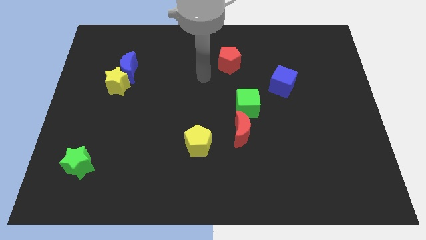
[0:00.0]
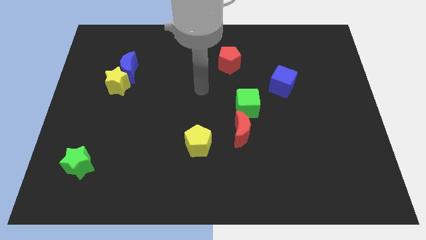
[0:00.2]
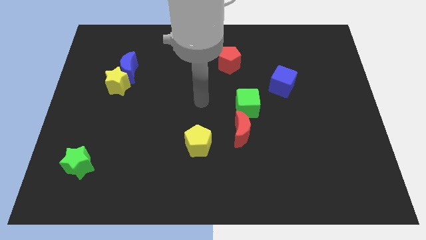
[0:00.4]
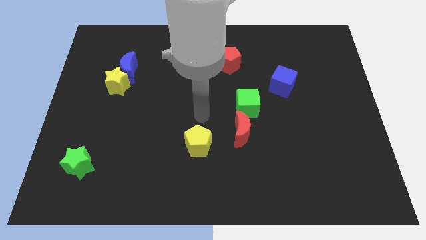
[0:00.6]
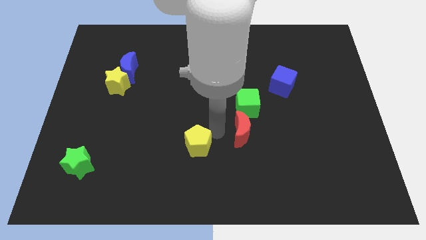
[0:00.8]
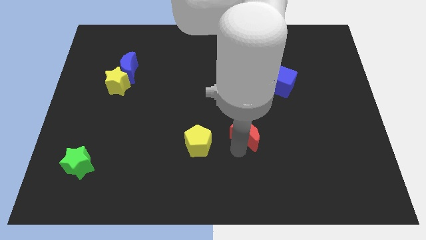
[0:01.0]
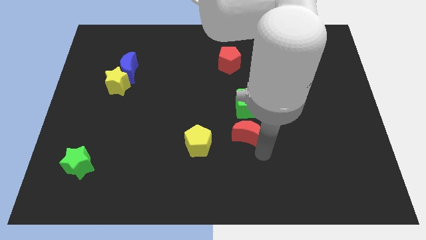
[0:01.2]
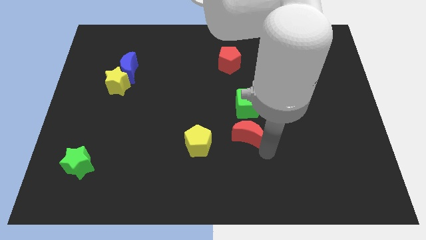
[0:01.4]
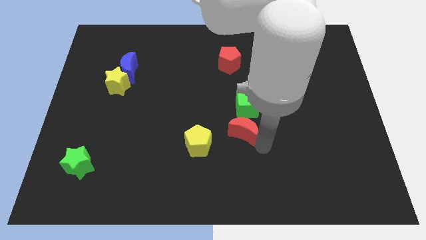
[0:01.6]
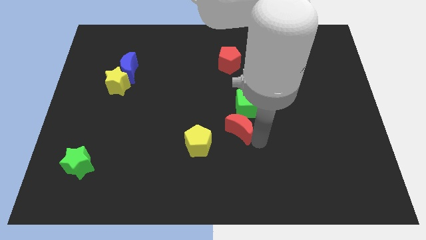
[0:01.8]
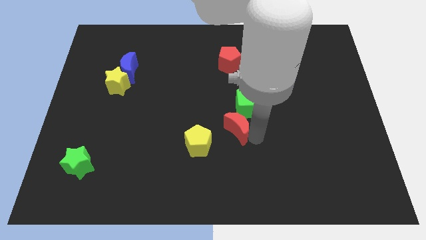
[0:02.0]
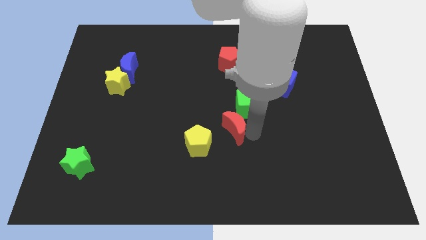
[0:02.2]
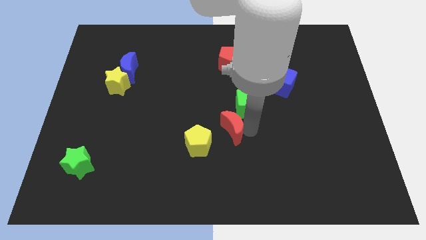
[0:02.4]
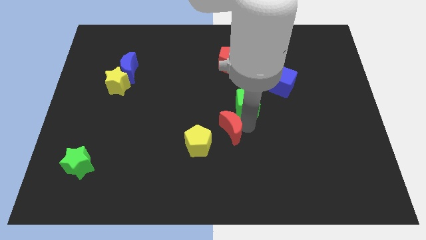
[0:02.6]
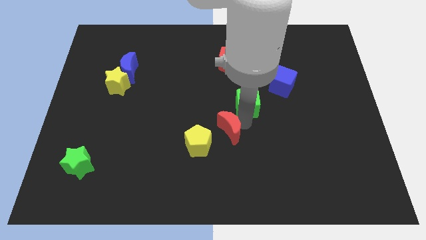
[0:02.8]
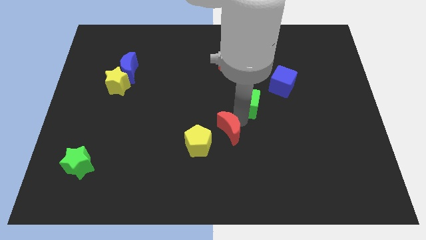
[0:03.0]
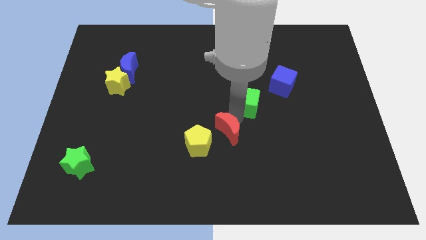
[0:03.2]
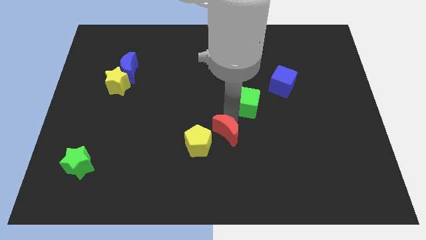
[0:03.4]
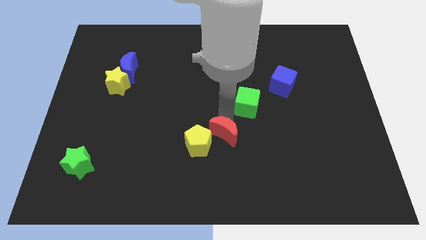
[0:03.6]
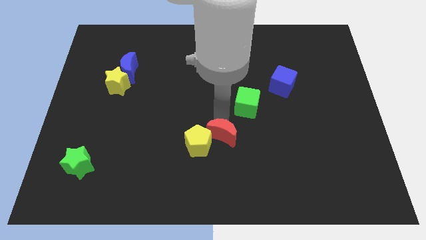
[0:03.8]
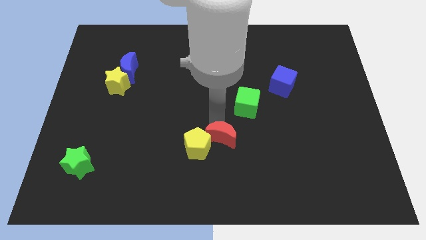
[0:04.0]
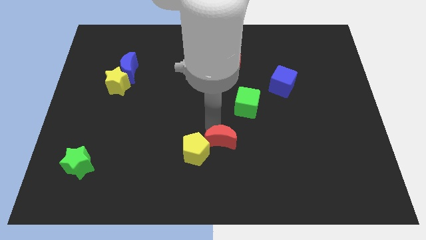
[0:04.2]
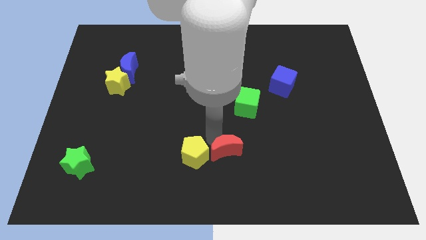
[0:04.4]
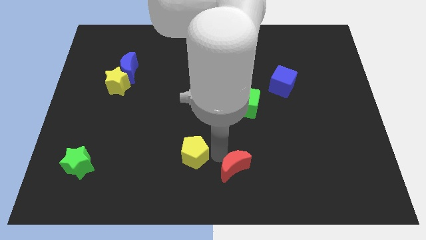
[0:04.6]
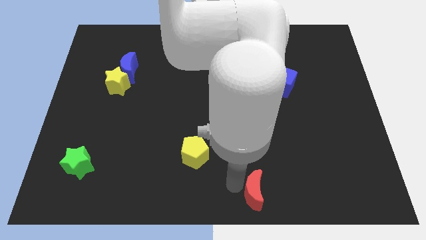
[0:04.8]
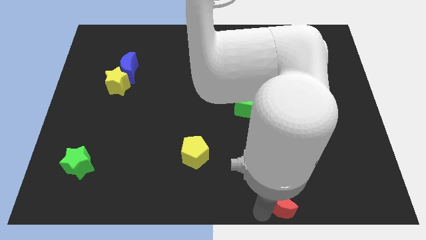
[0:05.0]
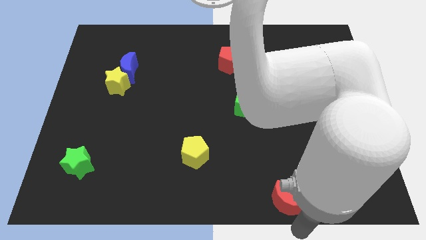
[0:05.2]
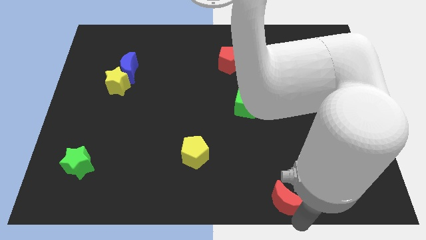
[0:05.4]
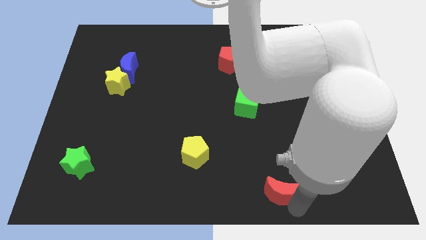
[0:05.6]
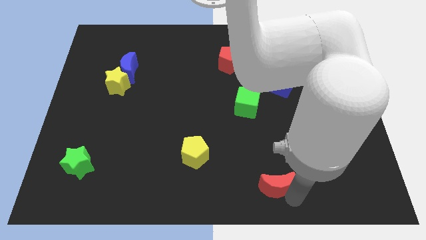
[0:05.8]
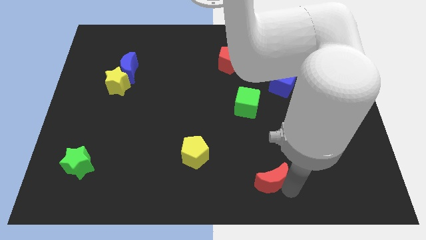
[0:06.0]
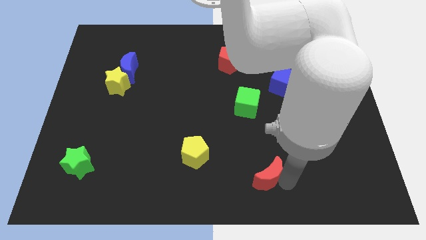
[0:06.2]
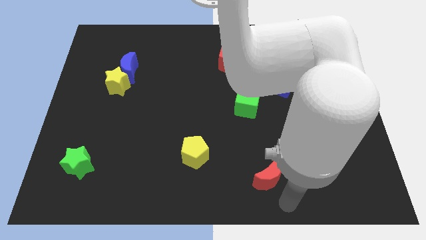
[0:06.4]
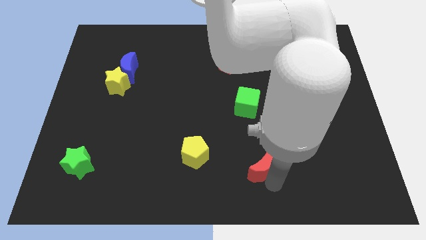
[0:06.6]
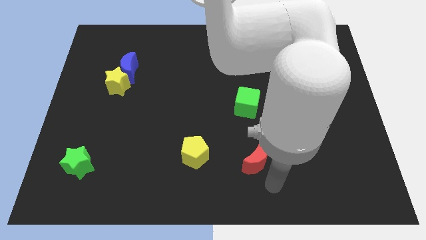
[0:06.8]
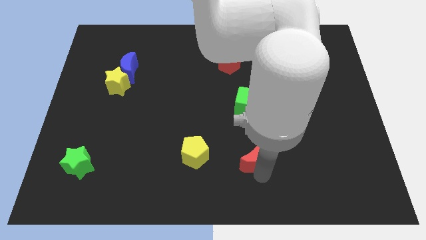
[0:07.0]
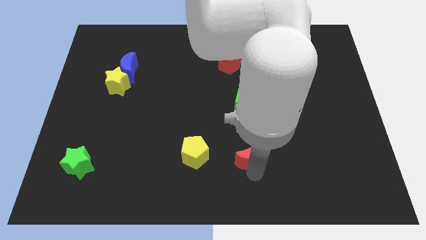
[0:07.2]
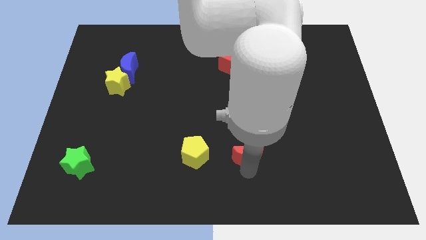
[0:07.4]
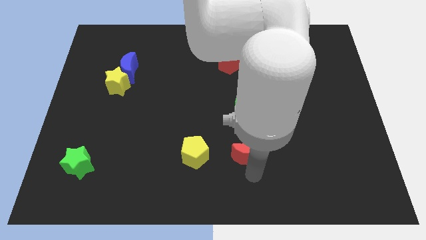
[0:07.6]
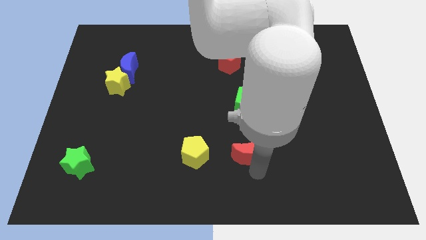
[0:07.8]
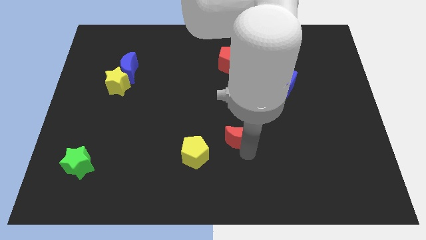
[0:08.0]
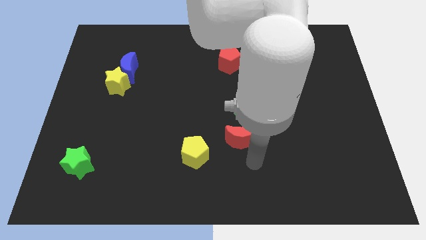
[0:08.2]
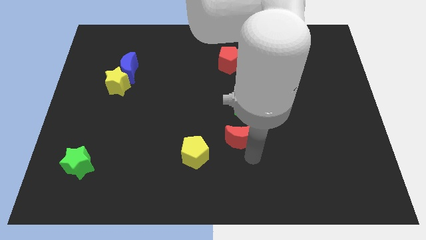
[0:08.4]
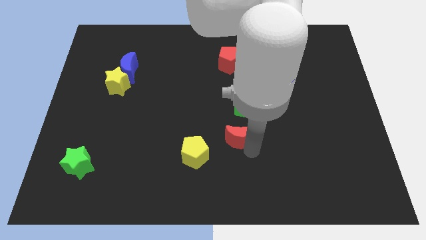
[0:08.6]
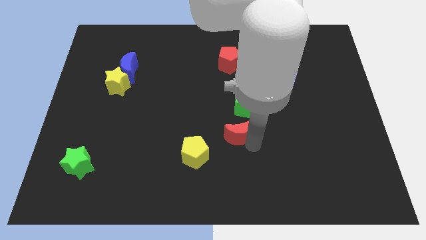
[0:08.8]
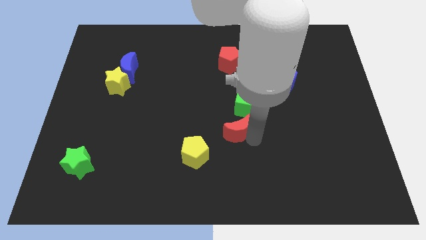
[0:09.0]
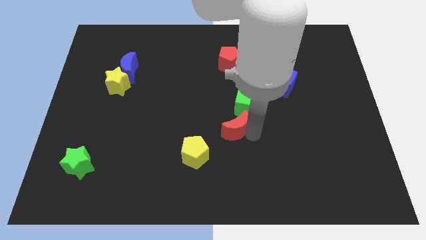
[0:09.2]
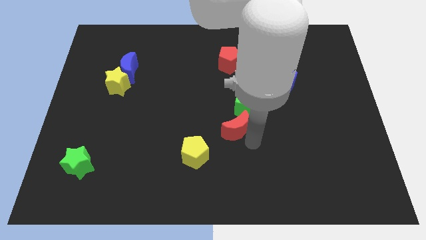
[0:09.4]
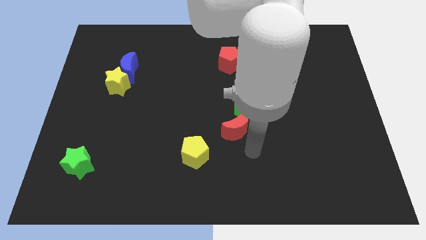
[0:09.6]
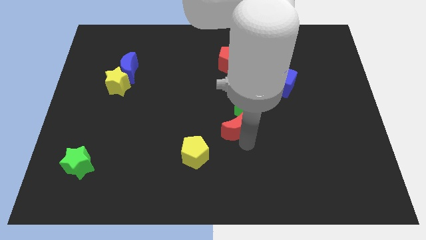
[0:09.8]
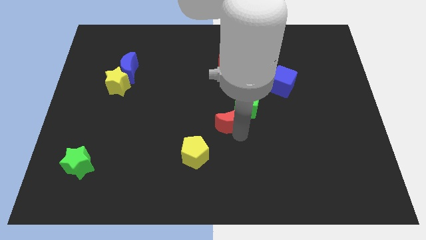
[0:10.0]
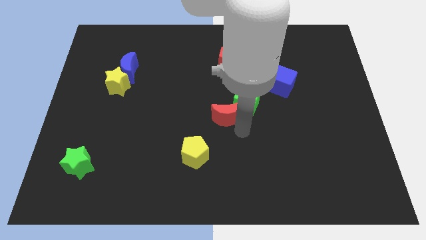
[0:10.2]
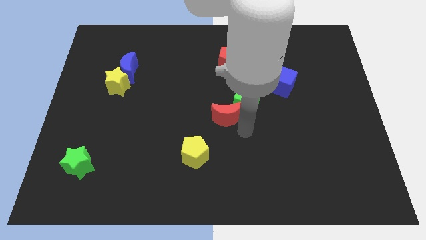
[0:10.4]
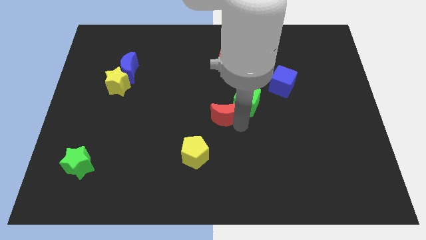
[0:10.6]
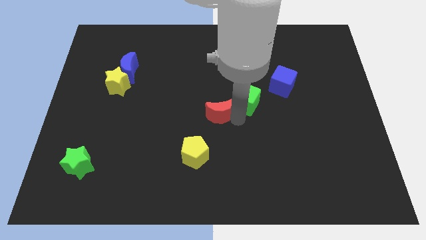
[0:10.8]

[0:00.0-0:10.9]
slightly push the red moon upwards and then left

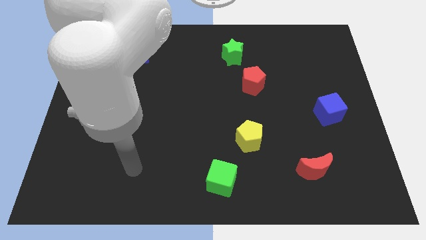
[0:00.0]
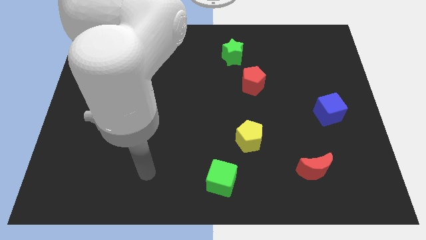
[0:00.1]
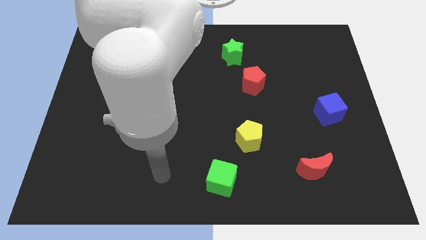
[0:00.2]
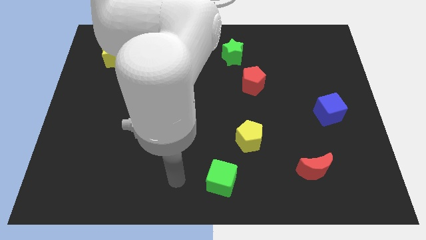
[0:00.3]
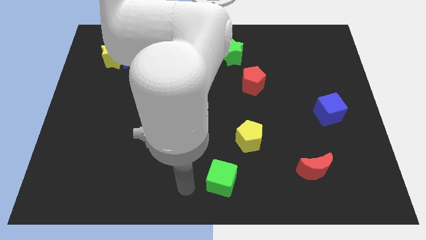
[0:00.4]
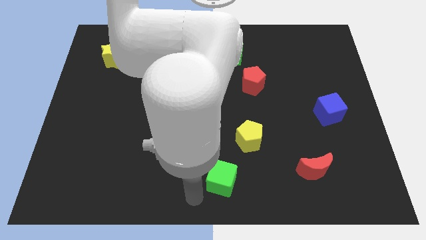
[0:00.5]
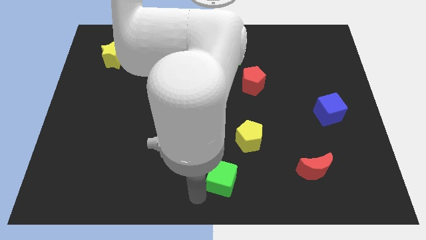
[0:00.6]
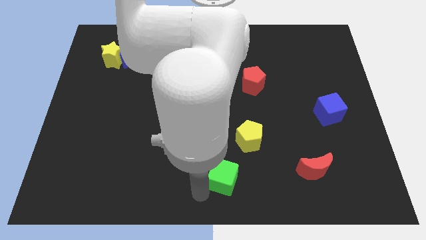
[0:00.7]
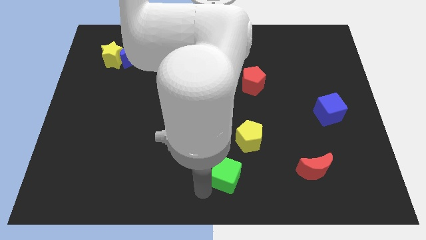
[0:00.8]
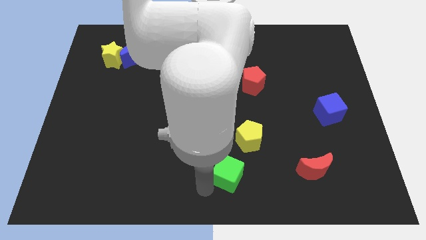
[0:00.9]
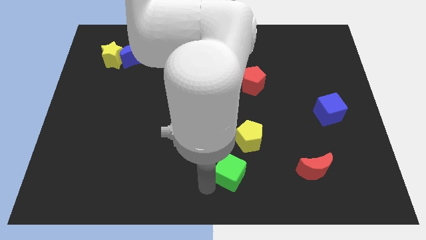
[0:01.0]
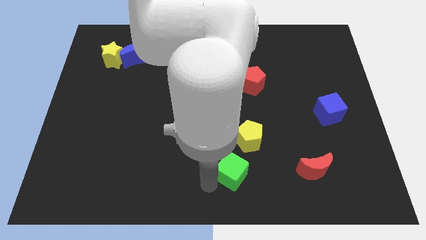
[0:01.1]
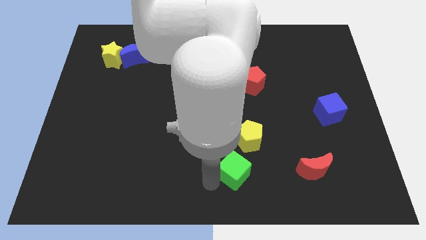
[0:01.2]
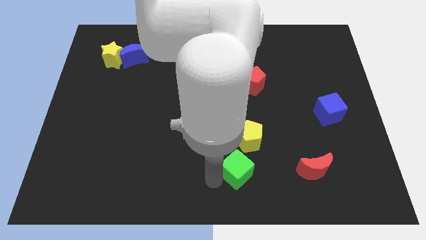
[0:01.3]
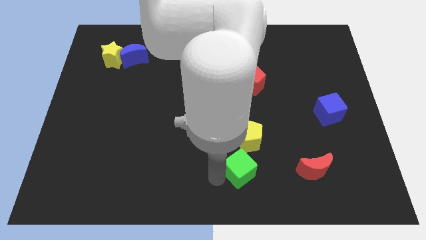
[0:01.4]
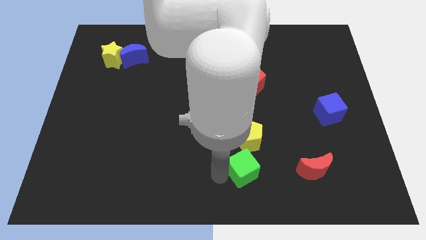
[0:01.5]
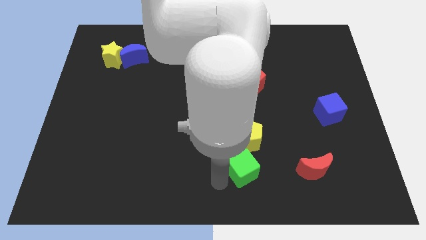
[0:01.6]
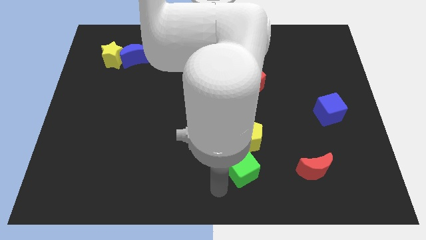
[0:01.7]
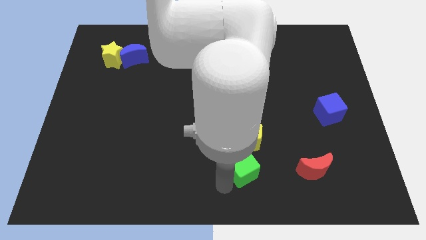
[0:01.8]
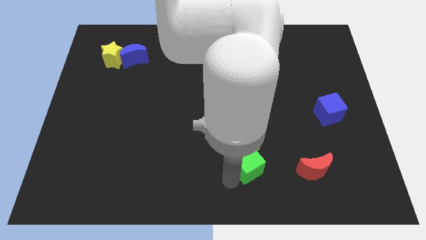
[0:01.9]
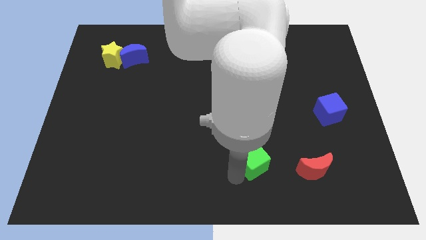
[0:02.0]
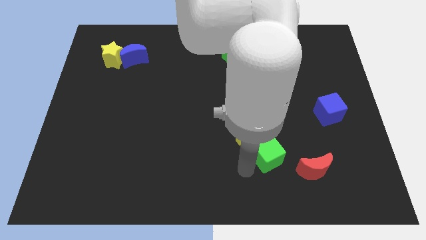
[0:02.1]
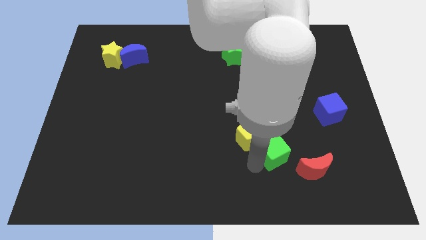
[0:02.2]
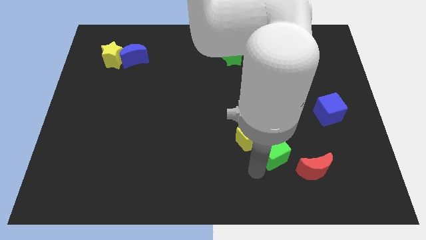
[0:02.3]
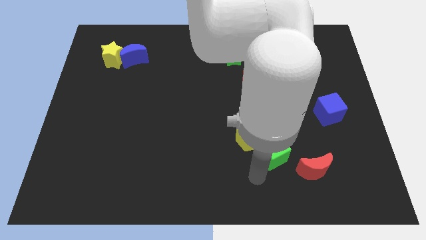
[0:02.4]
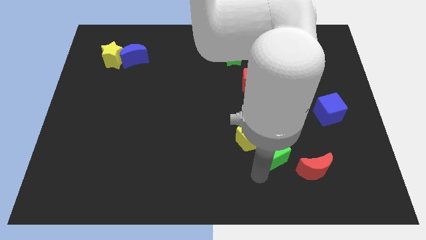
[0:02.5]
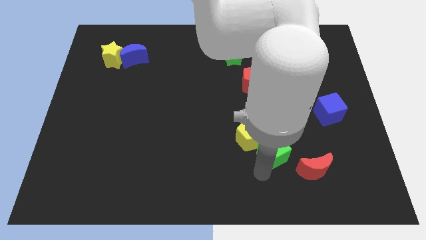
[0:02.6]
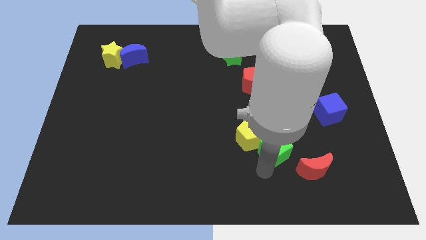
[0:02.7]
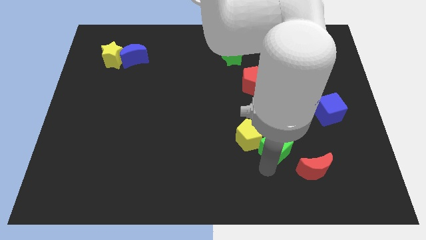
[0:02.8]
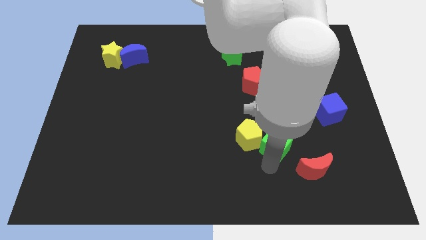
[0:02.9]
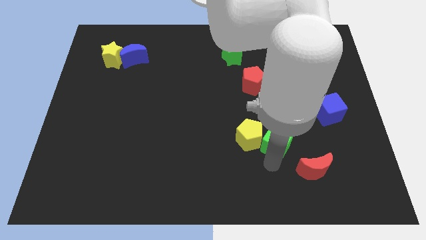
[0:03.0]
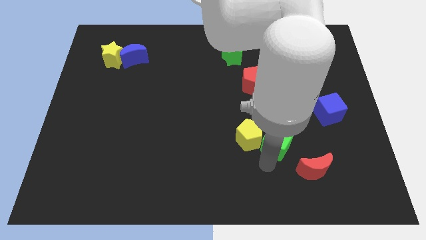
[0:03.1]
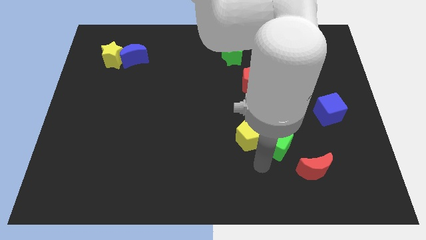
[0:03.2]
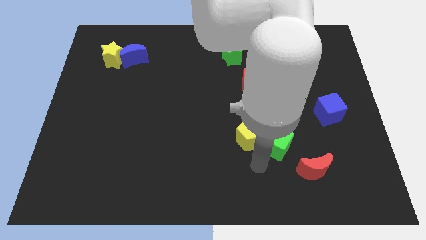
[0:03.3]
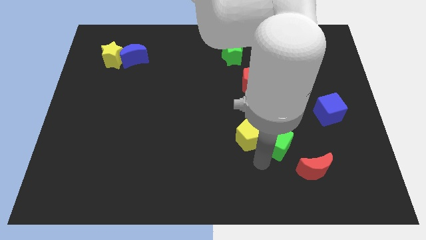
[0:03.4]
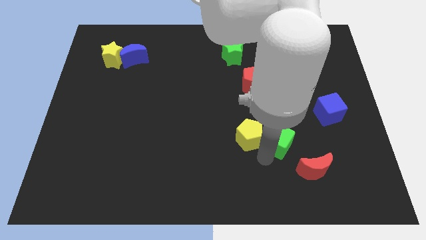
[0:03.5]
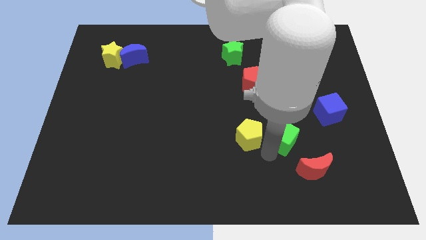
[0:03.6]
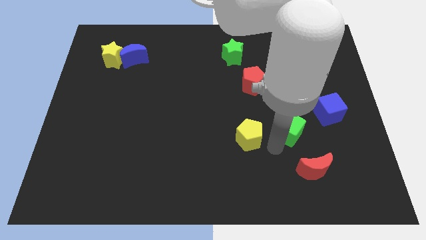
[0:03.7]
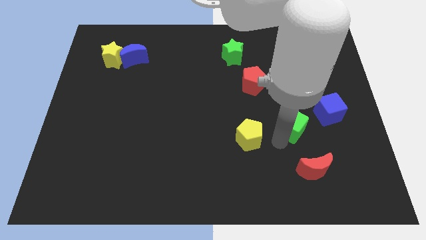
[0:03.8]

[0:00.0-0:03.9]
move the green cube up and to the right diagonally
